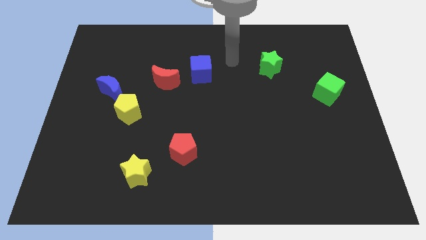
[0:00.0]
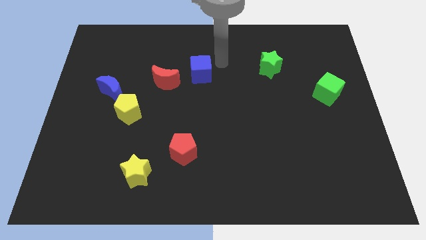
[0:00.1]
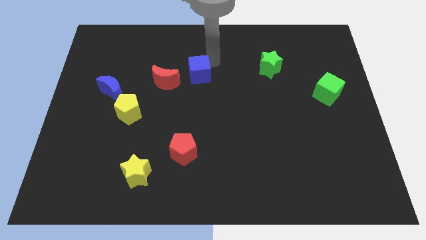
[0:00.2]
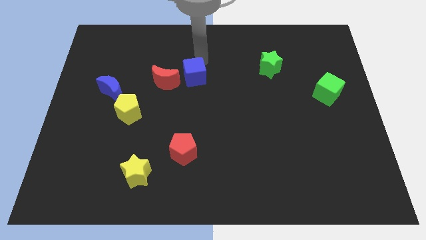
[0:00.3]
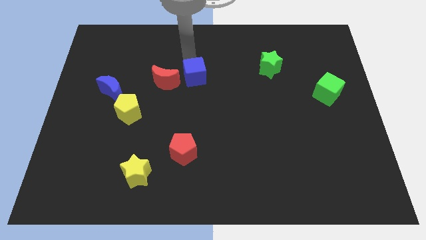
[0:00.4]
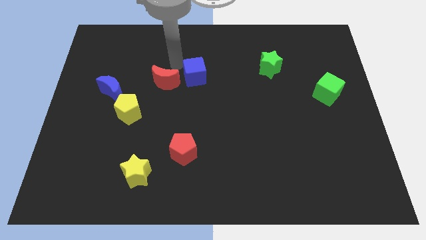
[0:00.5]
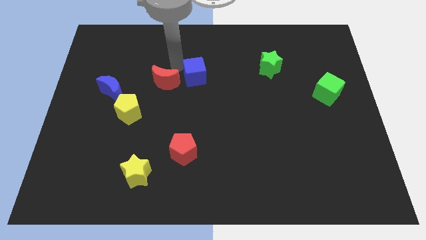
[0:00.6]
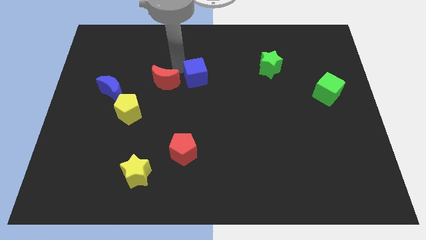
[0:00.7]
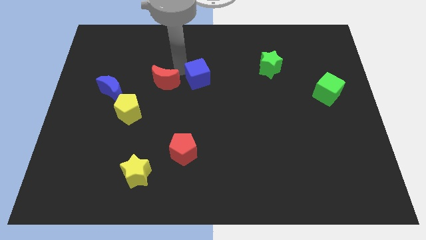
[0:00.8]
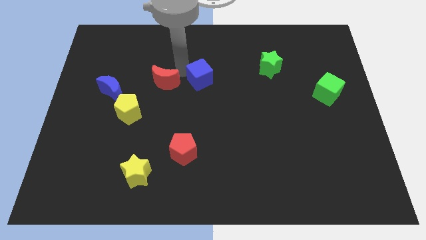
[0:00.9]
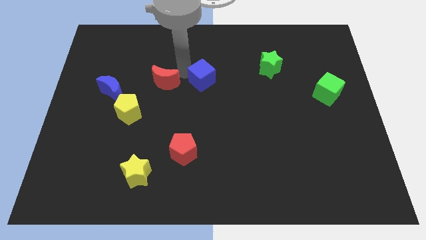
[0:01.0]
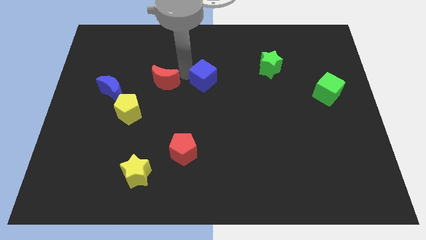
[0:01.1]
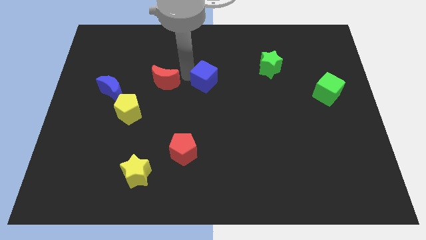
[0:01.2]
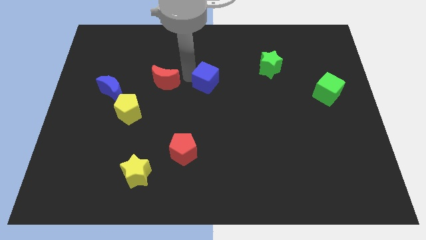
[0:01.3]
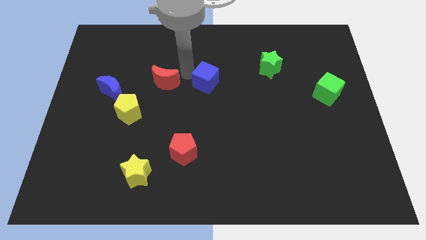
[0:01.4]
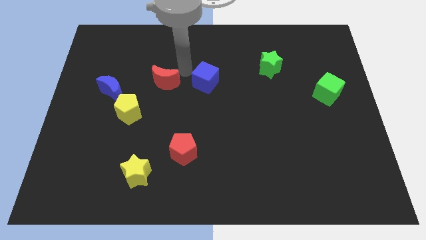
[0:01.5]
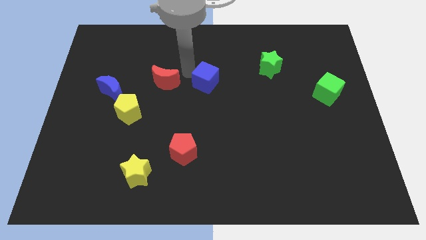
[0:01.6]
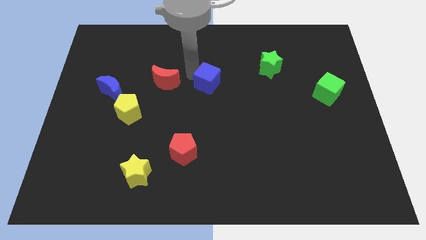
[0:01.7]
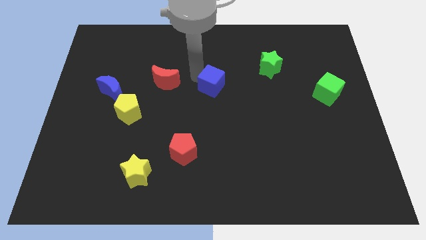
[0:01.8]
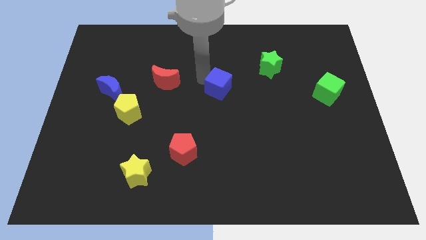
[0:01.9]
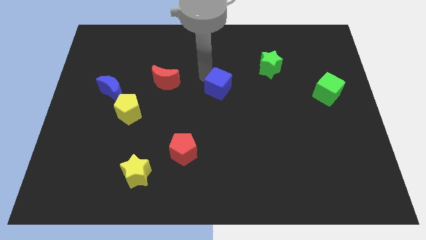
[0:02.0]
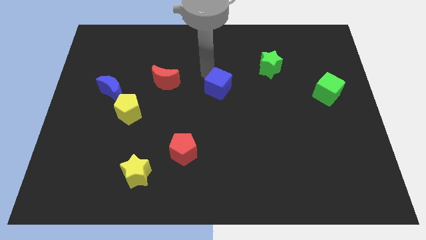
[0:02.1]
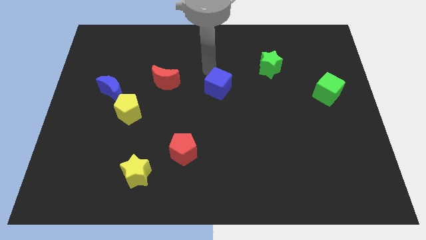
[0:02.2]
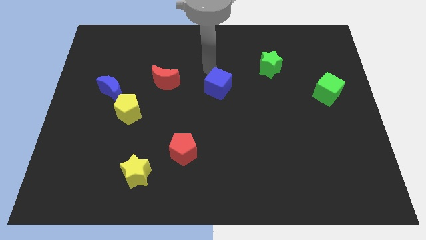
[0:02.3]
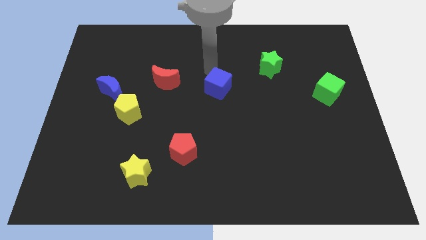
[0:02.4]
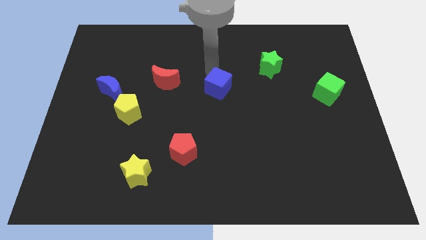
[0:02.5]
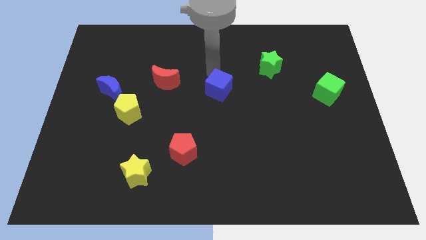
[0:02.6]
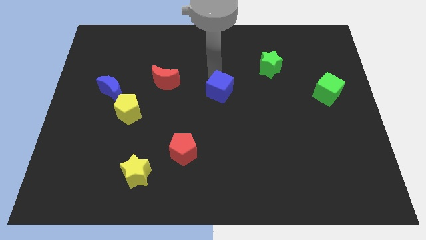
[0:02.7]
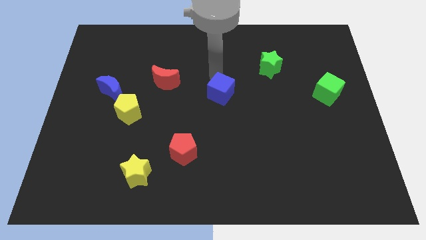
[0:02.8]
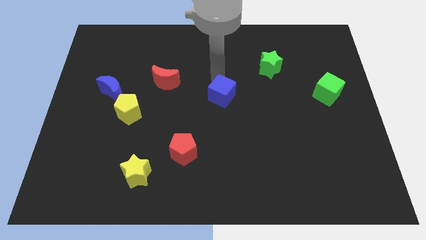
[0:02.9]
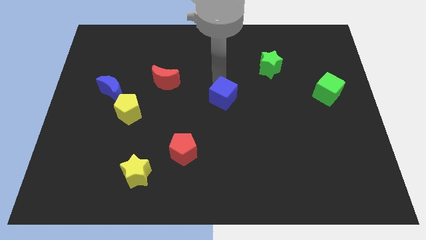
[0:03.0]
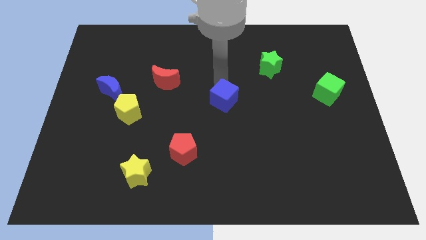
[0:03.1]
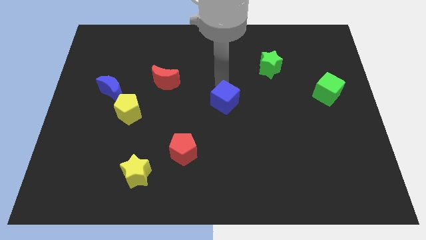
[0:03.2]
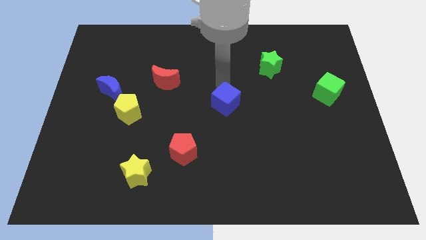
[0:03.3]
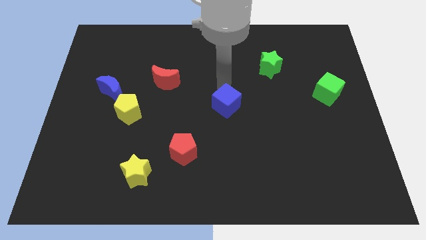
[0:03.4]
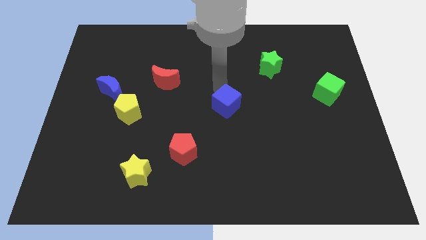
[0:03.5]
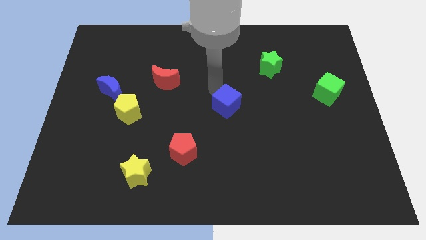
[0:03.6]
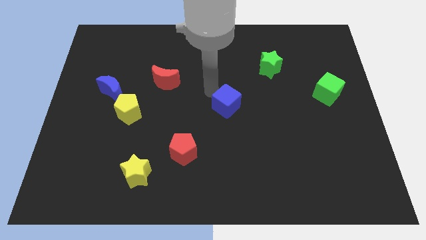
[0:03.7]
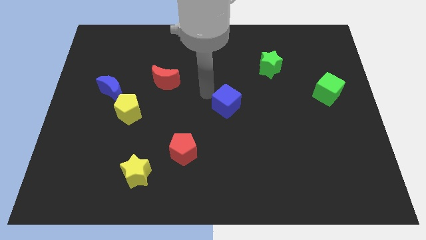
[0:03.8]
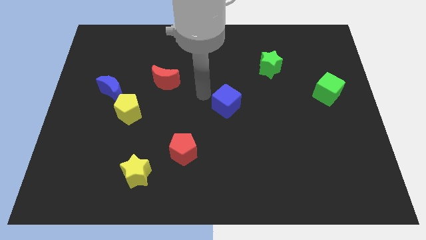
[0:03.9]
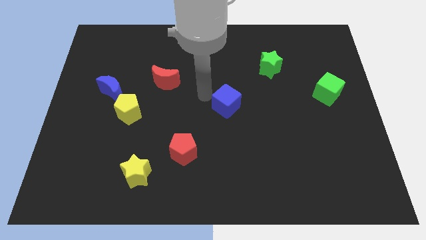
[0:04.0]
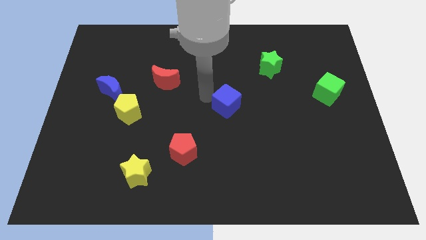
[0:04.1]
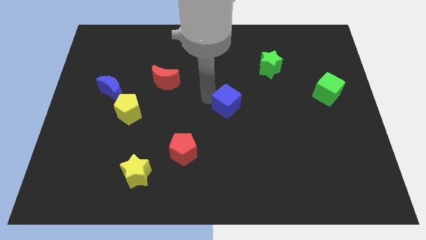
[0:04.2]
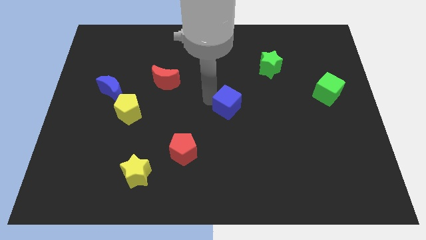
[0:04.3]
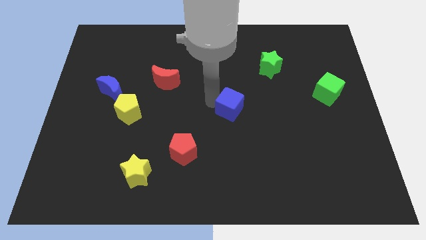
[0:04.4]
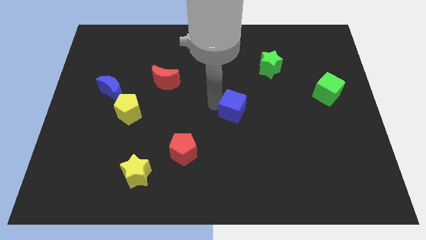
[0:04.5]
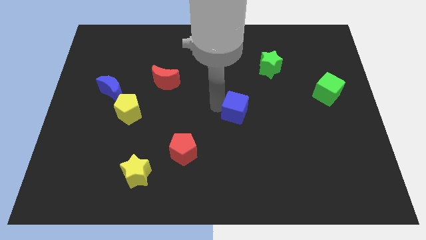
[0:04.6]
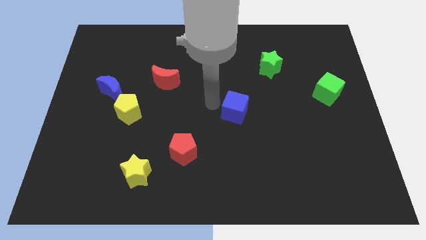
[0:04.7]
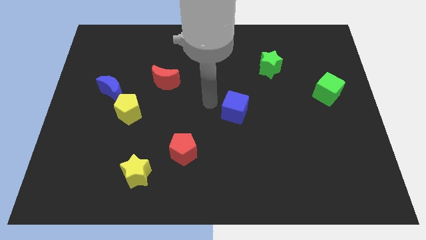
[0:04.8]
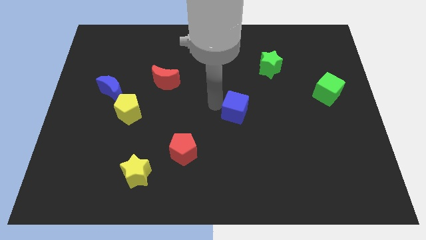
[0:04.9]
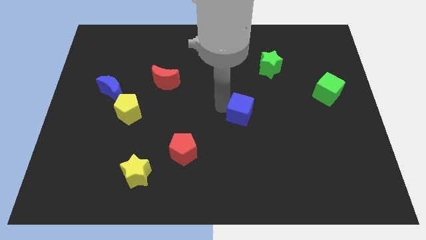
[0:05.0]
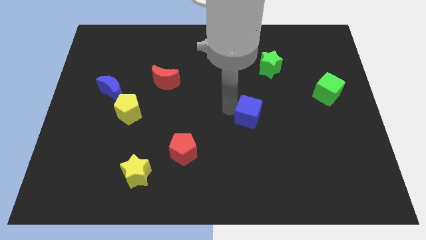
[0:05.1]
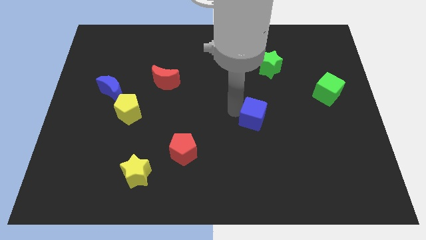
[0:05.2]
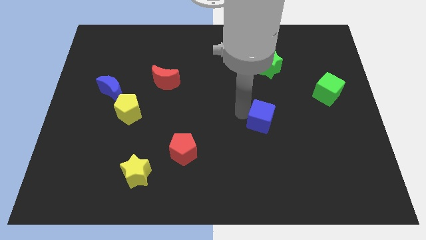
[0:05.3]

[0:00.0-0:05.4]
slide the blue cube downwards and to the right

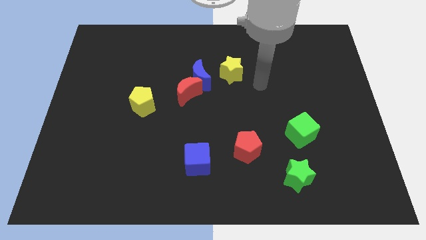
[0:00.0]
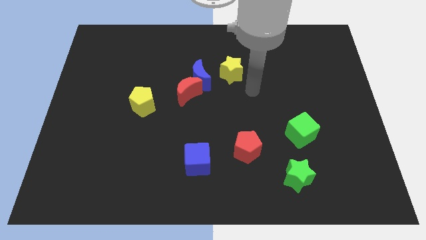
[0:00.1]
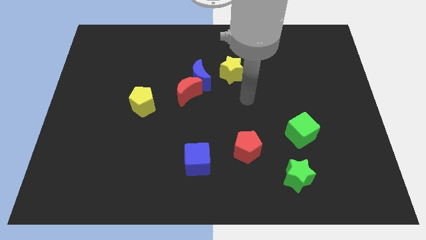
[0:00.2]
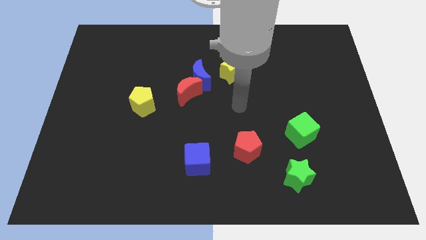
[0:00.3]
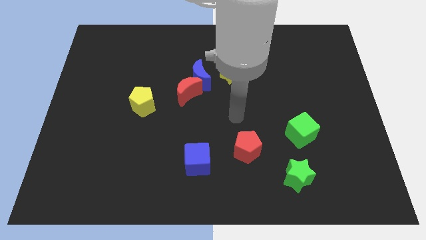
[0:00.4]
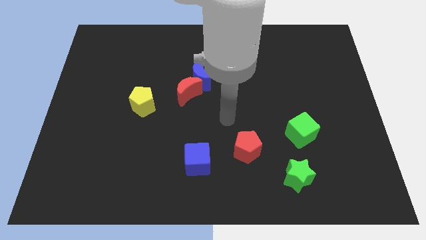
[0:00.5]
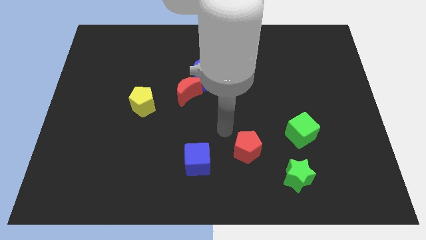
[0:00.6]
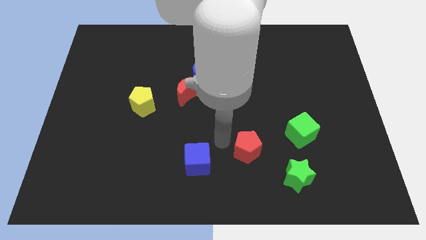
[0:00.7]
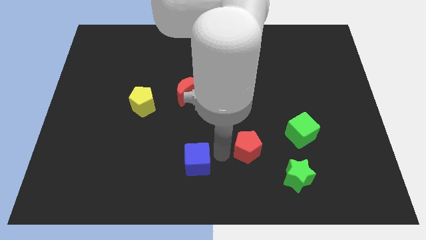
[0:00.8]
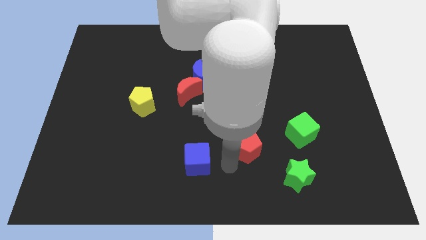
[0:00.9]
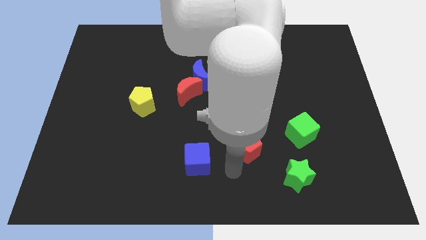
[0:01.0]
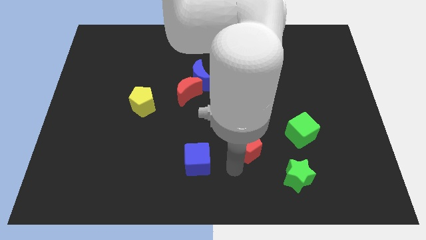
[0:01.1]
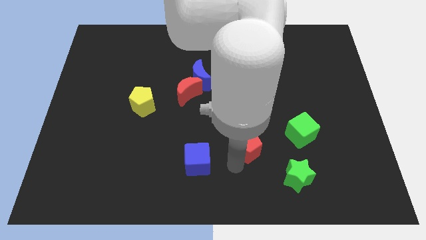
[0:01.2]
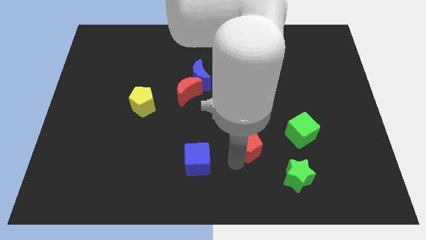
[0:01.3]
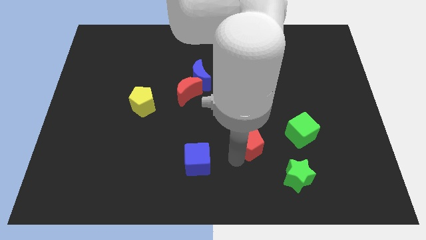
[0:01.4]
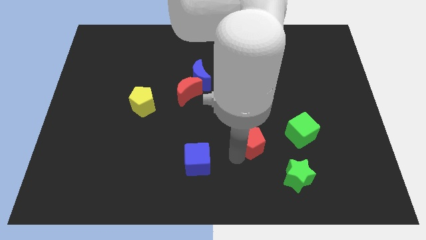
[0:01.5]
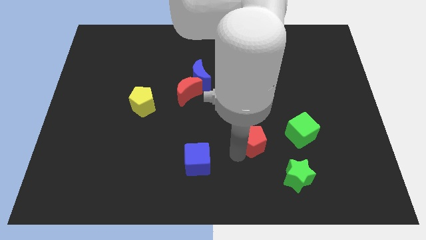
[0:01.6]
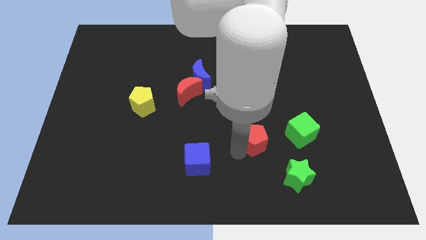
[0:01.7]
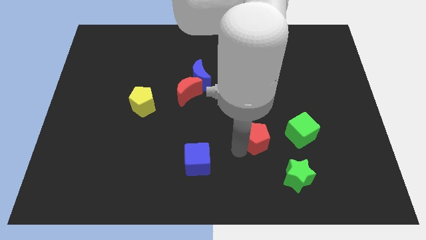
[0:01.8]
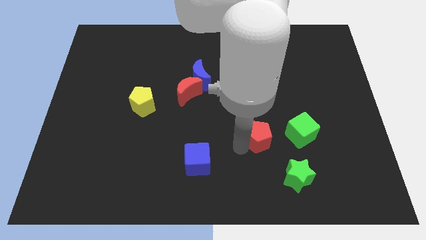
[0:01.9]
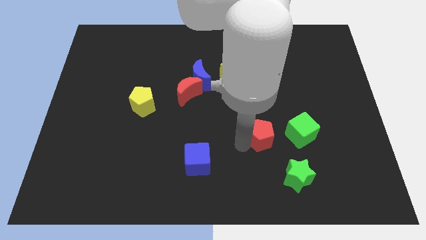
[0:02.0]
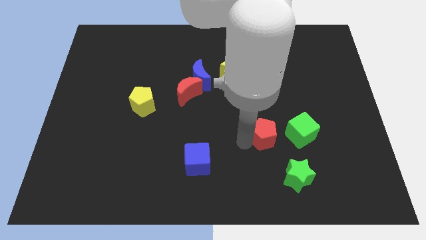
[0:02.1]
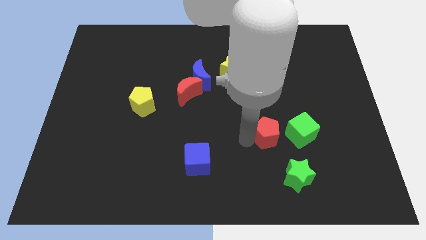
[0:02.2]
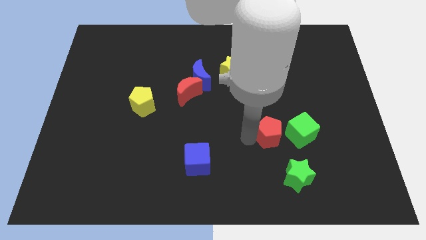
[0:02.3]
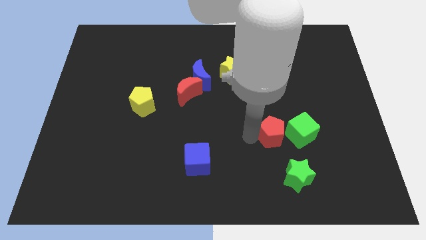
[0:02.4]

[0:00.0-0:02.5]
slightly push the red pentagon upwards and right

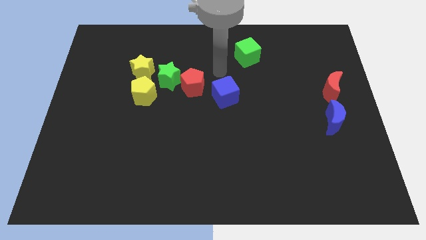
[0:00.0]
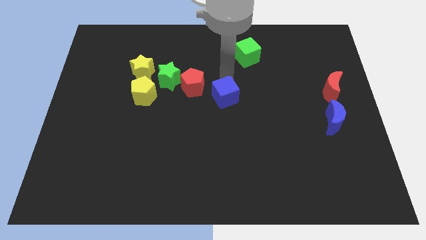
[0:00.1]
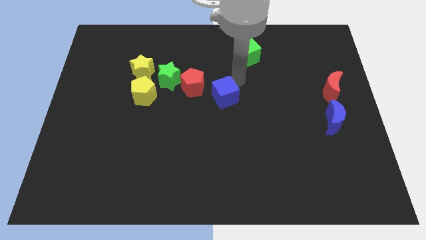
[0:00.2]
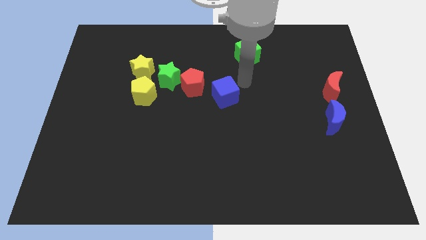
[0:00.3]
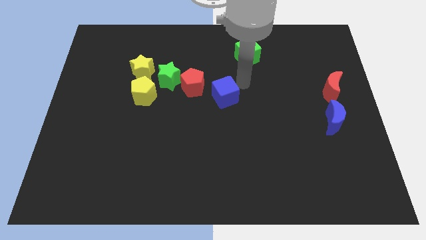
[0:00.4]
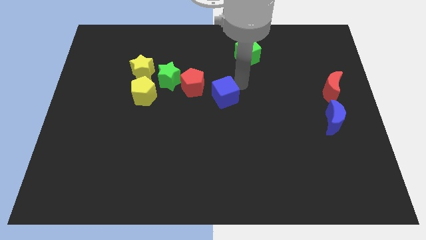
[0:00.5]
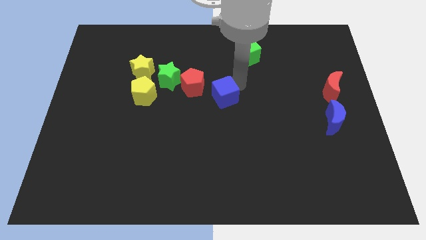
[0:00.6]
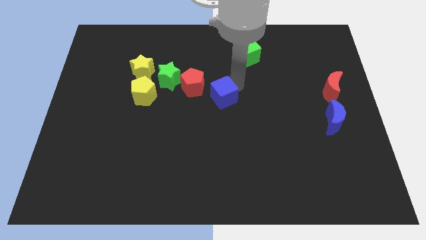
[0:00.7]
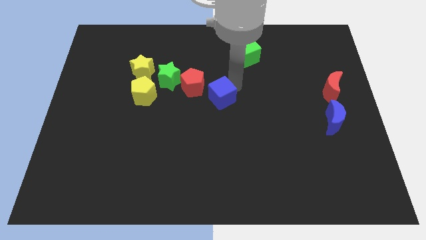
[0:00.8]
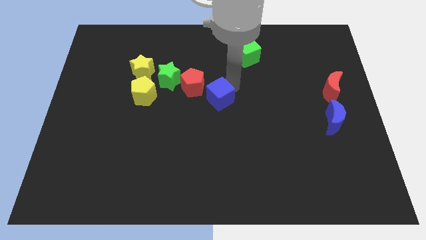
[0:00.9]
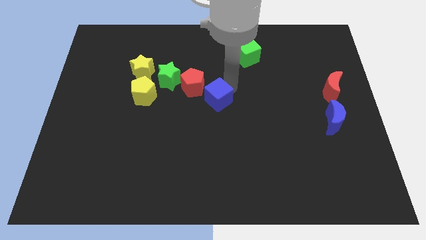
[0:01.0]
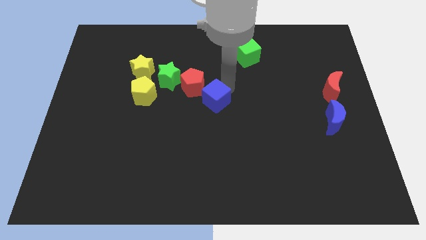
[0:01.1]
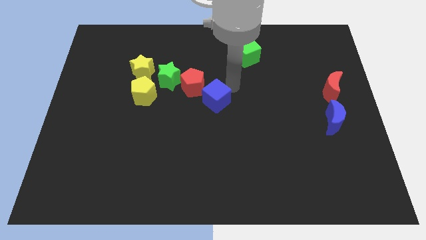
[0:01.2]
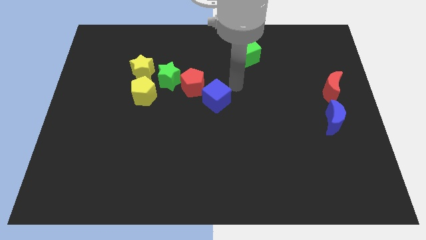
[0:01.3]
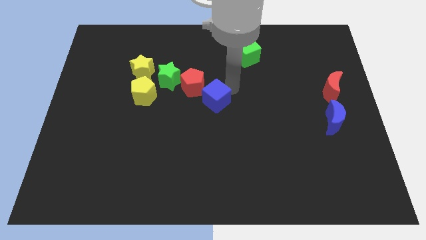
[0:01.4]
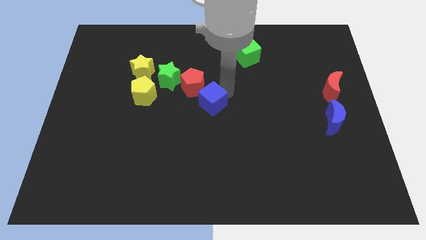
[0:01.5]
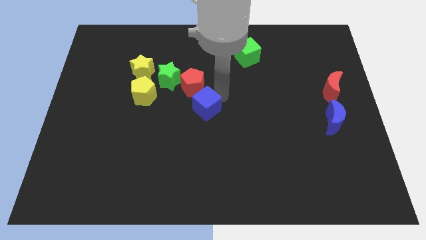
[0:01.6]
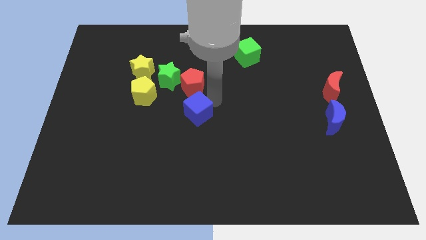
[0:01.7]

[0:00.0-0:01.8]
slightly slide the blue cube down and then to the left
